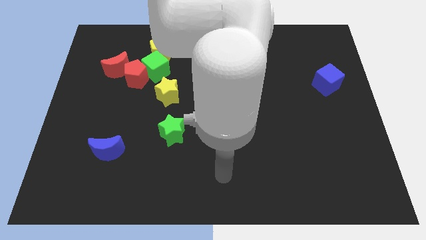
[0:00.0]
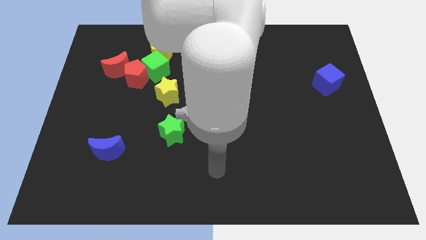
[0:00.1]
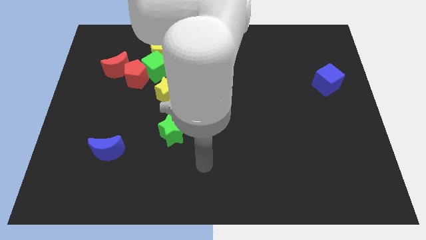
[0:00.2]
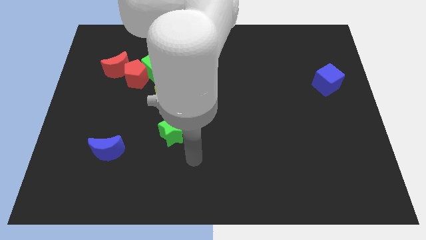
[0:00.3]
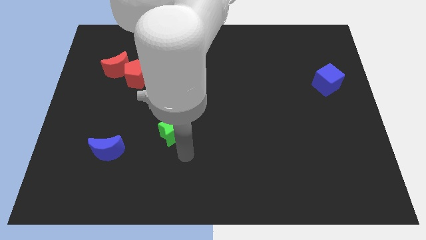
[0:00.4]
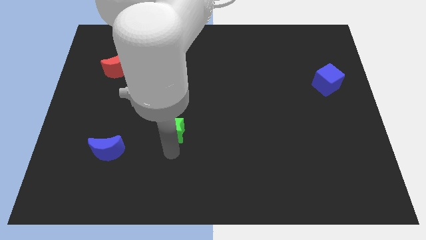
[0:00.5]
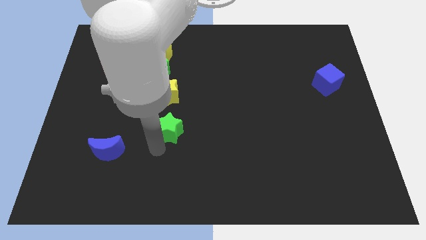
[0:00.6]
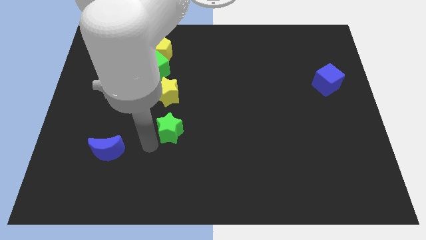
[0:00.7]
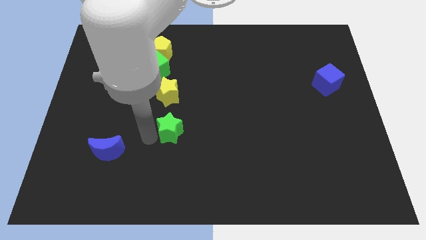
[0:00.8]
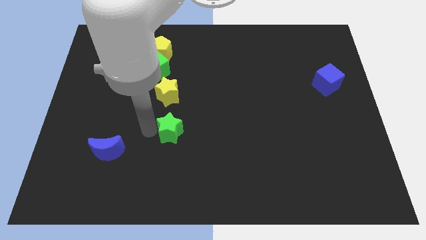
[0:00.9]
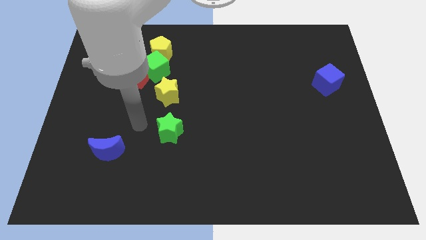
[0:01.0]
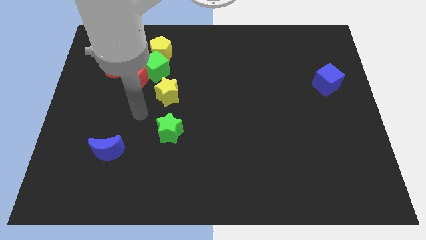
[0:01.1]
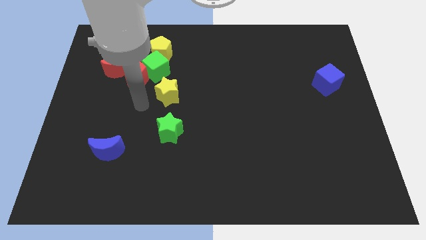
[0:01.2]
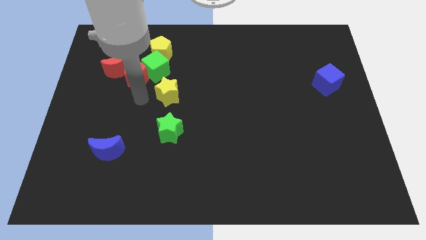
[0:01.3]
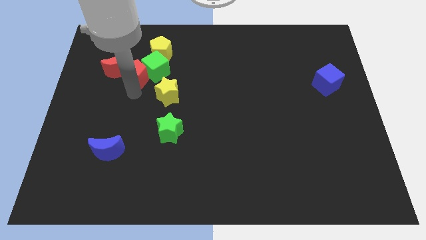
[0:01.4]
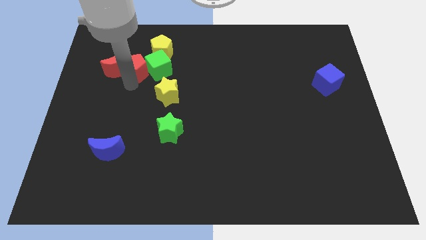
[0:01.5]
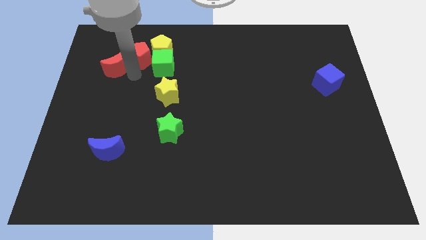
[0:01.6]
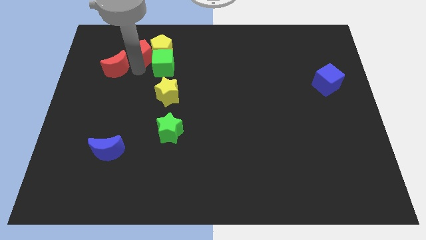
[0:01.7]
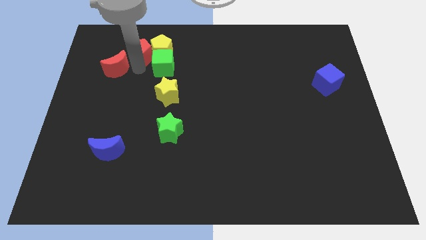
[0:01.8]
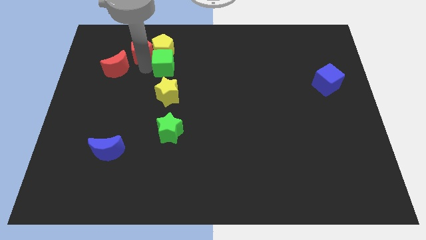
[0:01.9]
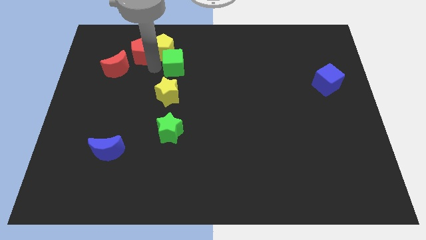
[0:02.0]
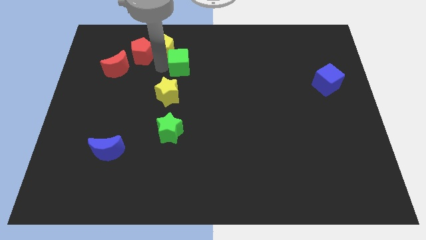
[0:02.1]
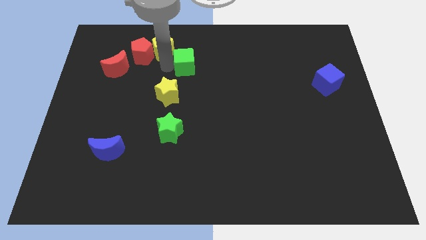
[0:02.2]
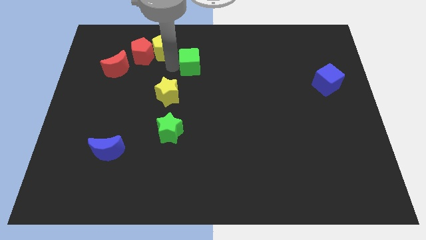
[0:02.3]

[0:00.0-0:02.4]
separate the green cube from the group

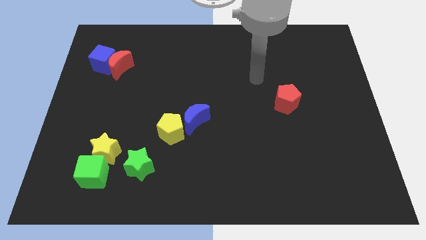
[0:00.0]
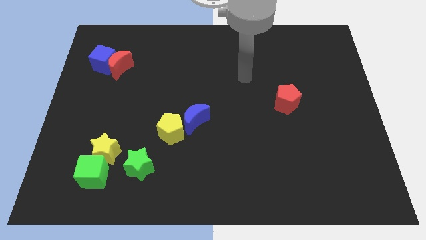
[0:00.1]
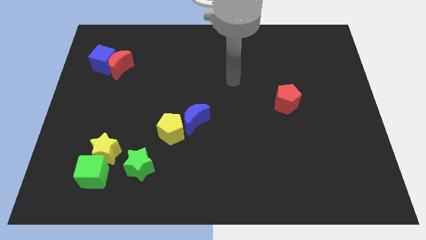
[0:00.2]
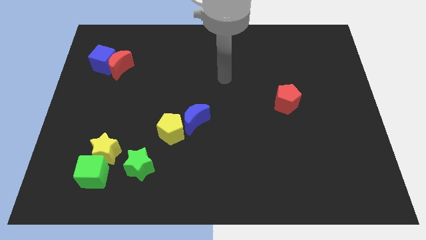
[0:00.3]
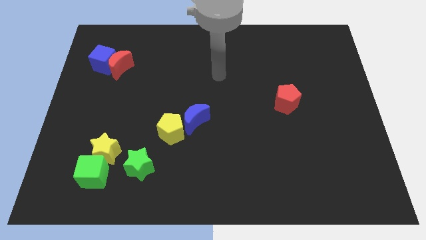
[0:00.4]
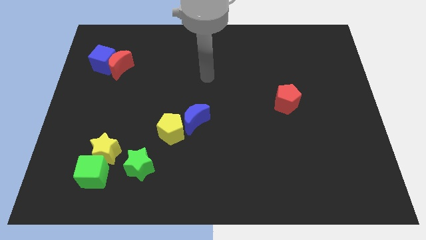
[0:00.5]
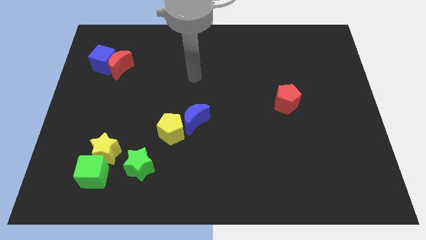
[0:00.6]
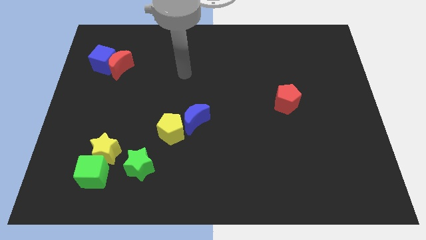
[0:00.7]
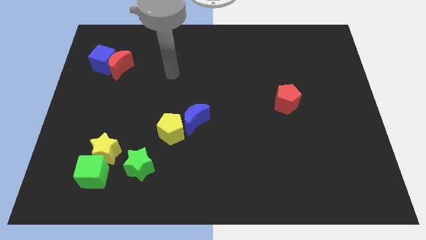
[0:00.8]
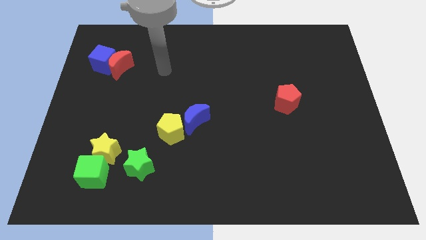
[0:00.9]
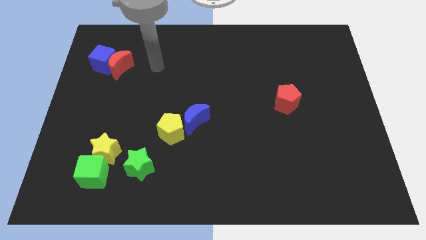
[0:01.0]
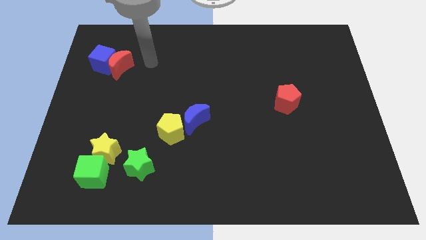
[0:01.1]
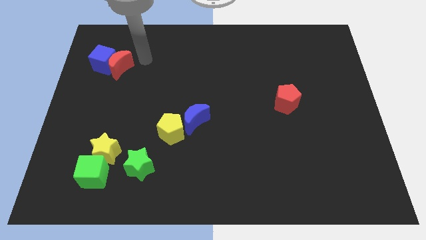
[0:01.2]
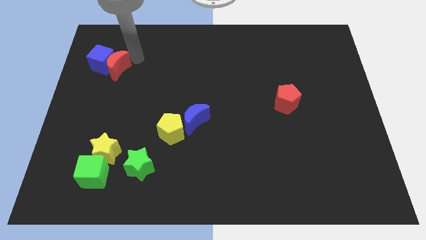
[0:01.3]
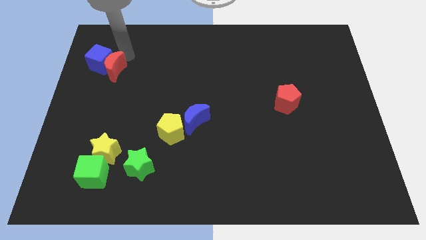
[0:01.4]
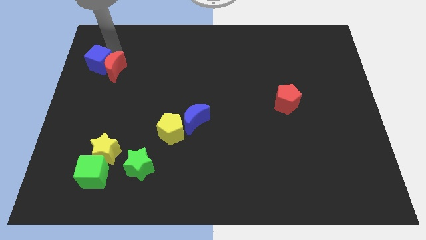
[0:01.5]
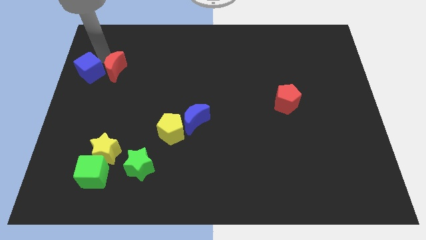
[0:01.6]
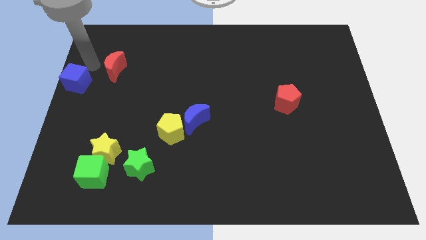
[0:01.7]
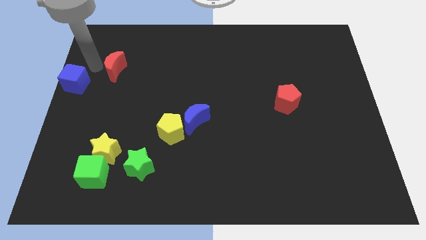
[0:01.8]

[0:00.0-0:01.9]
separate the red moon from the blue cube

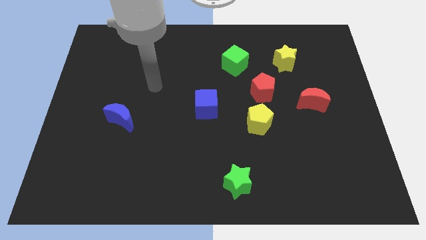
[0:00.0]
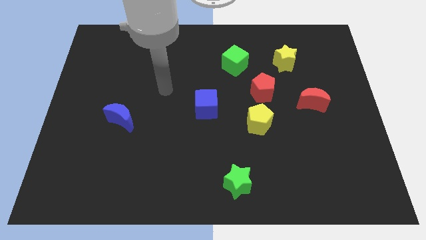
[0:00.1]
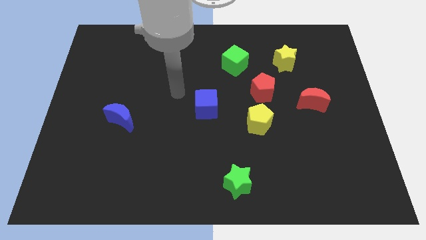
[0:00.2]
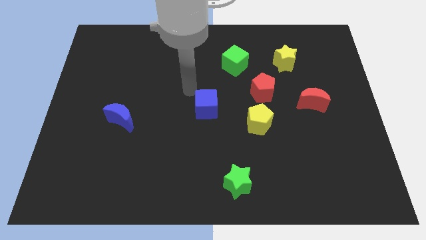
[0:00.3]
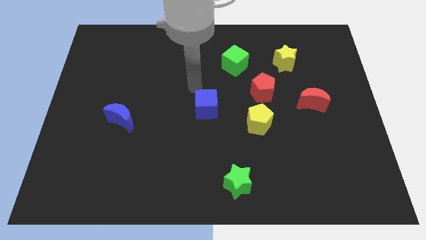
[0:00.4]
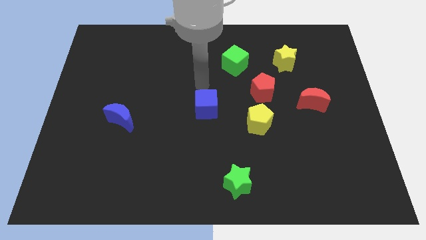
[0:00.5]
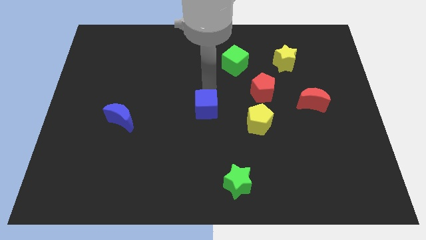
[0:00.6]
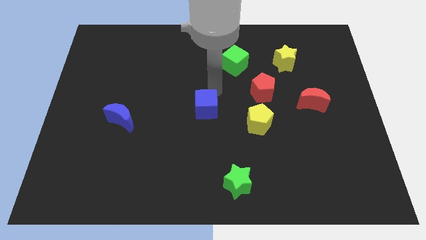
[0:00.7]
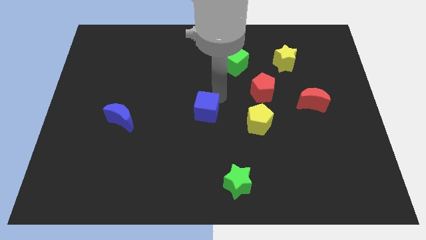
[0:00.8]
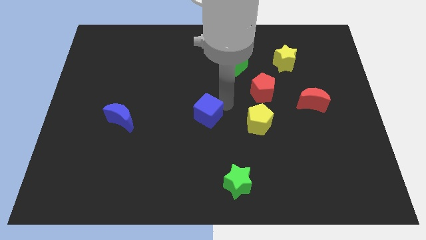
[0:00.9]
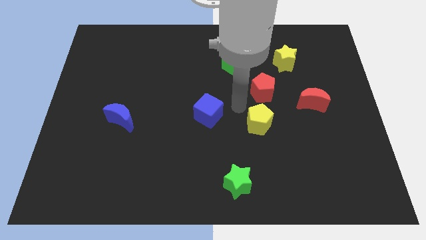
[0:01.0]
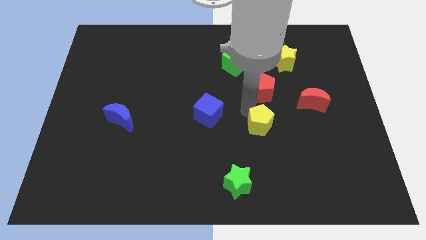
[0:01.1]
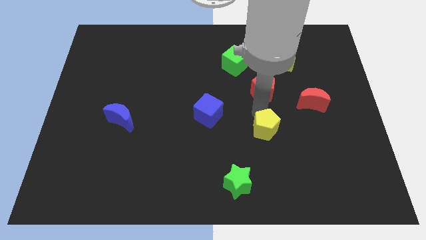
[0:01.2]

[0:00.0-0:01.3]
separate the red pentagon from the yellow pentagon

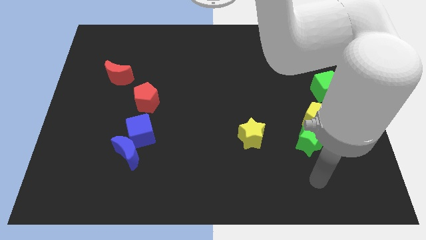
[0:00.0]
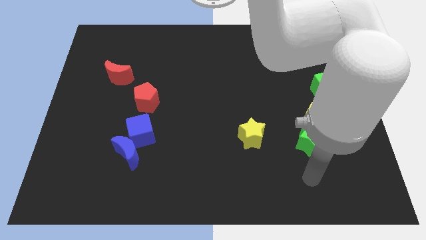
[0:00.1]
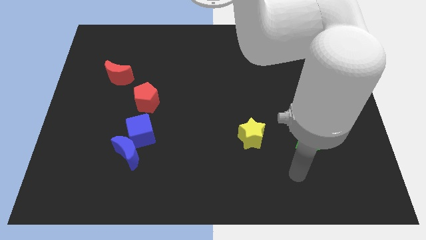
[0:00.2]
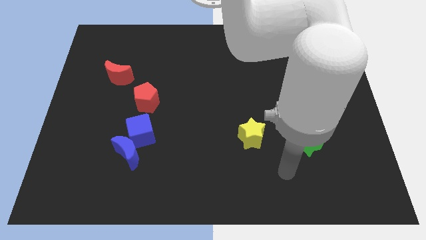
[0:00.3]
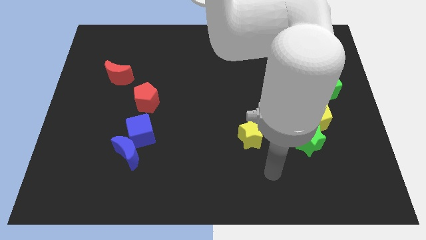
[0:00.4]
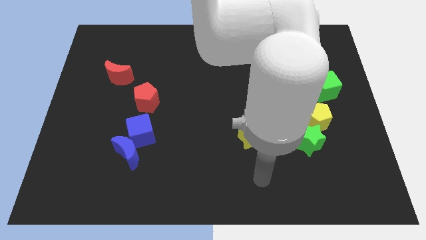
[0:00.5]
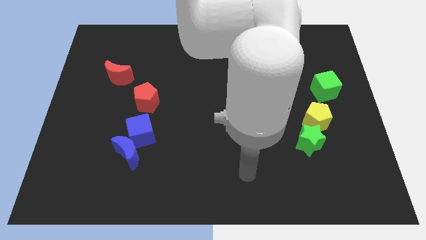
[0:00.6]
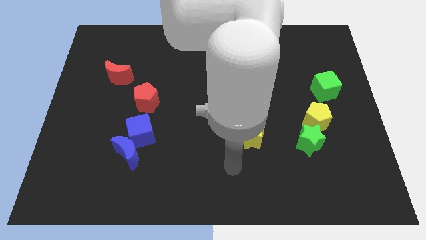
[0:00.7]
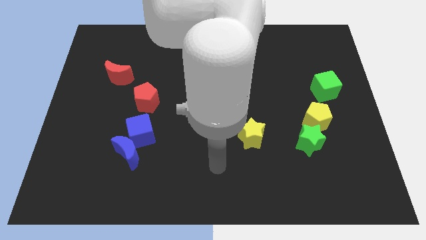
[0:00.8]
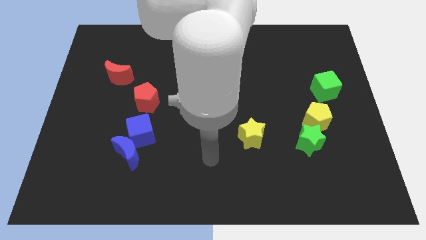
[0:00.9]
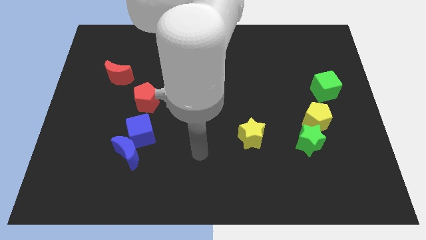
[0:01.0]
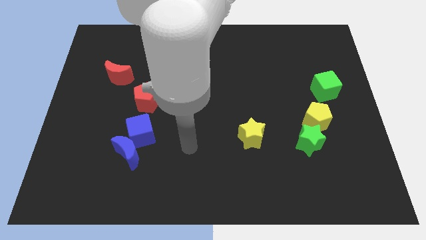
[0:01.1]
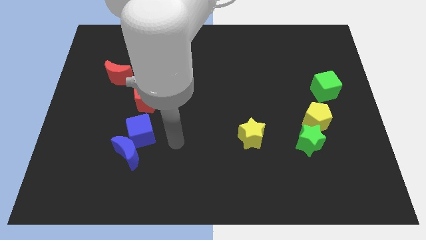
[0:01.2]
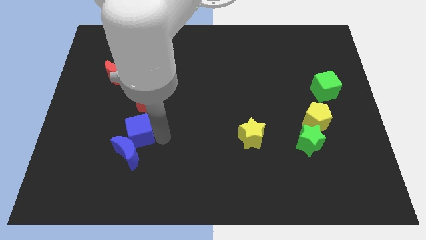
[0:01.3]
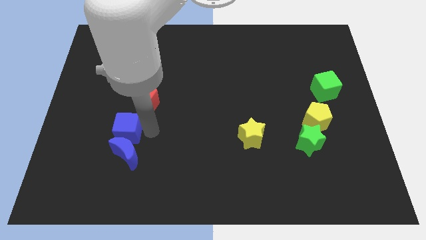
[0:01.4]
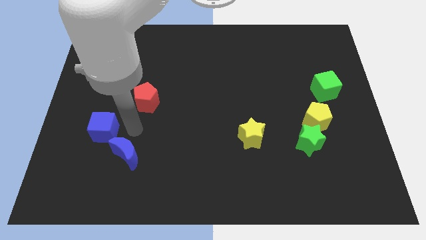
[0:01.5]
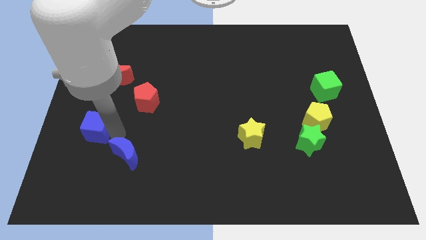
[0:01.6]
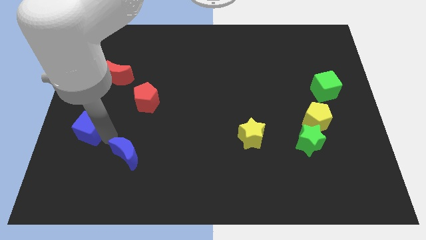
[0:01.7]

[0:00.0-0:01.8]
move the blue moon away from the blue cube

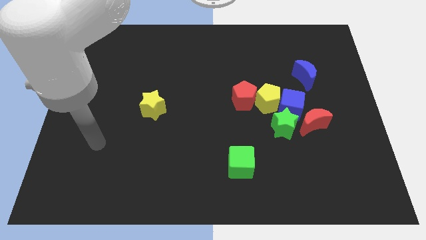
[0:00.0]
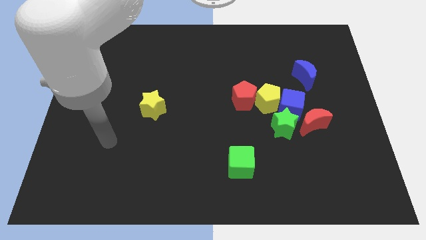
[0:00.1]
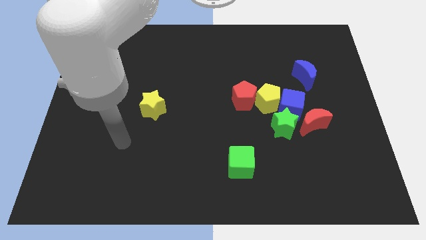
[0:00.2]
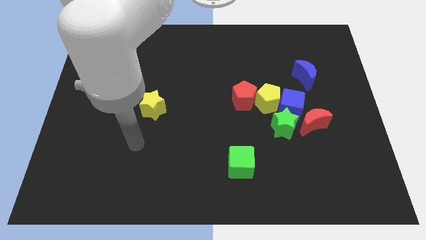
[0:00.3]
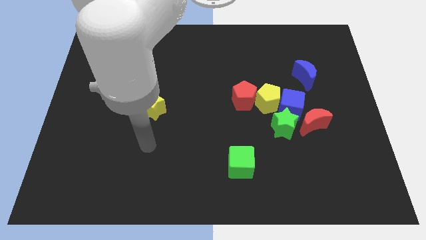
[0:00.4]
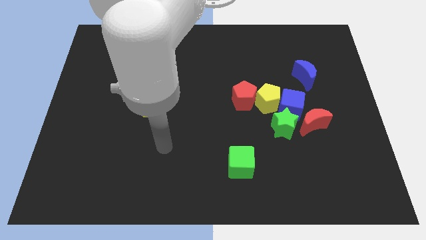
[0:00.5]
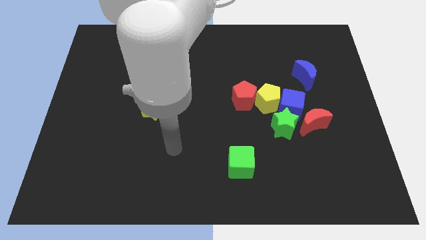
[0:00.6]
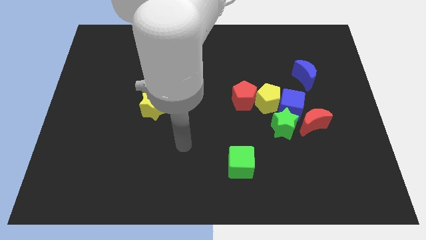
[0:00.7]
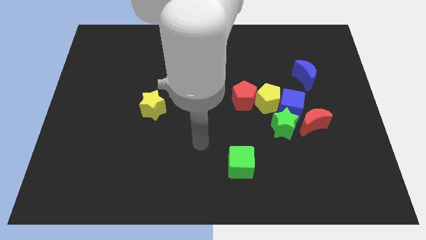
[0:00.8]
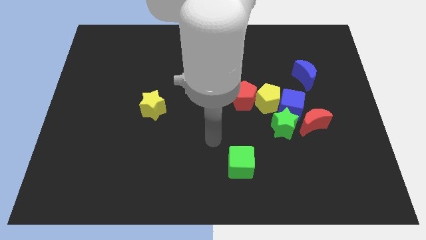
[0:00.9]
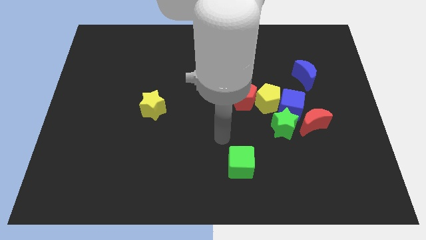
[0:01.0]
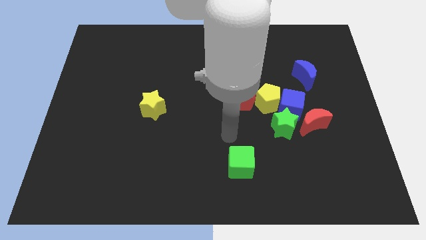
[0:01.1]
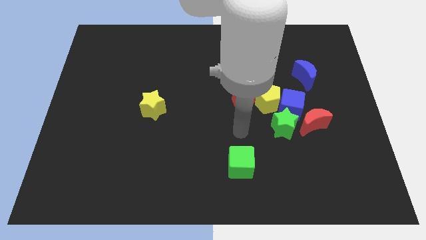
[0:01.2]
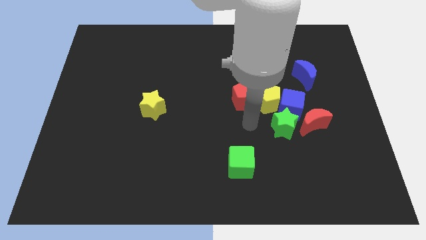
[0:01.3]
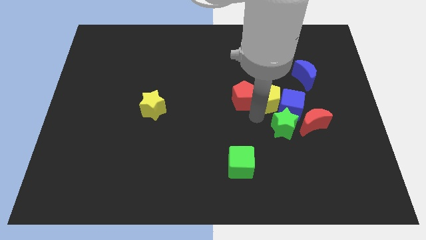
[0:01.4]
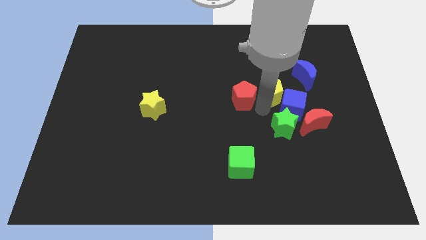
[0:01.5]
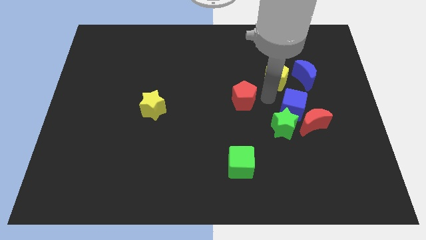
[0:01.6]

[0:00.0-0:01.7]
pull the red pentagon apart from the yellow pentagon

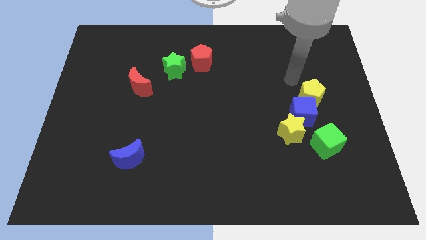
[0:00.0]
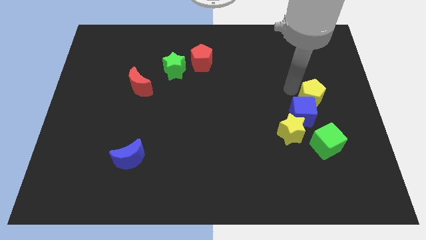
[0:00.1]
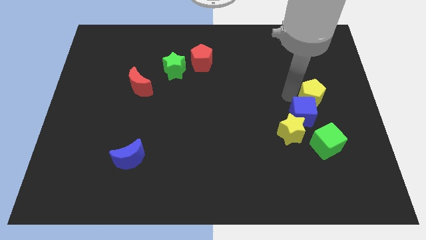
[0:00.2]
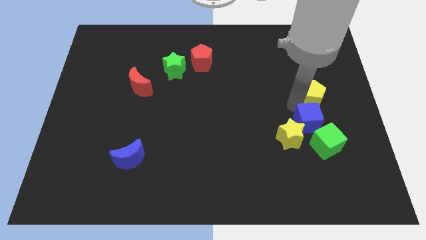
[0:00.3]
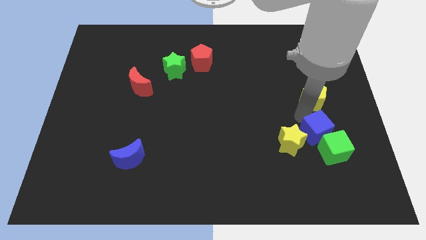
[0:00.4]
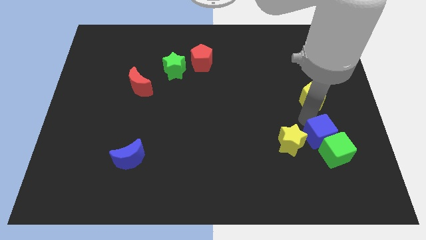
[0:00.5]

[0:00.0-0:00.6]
move the yellow pentagon away from the blue cube
